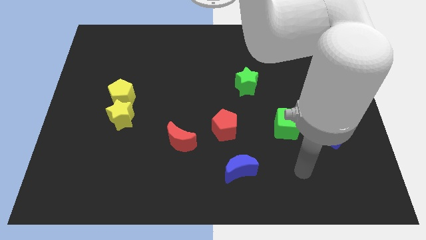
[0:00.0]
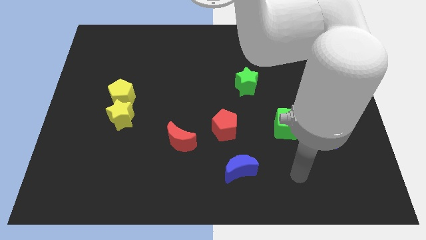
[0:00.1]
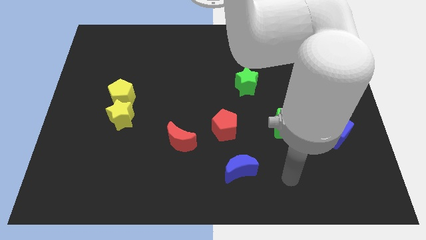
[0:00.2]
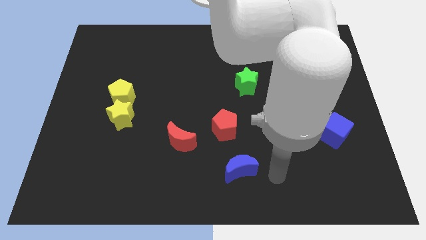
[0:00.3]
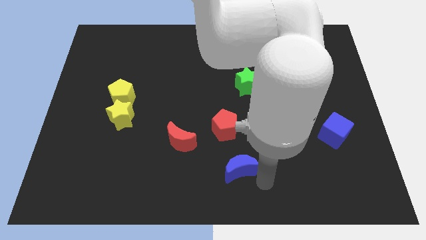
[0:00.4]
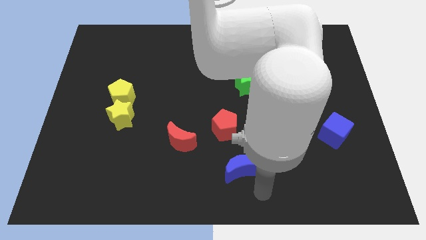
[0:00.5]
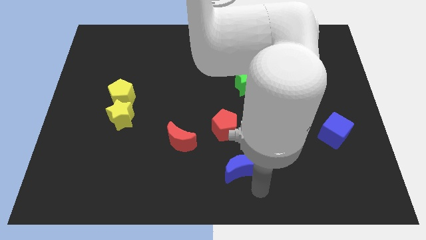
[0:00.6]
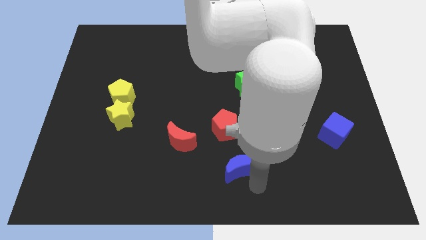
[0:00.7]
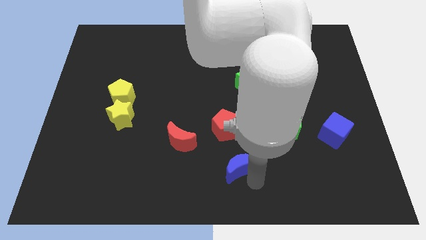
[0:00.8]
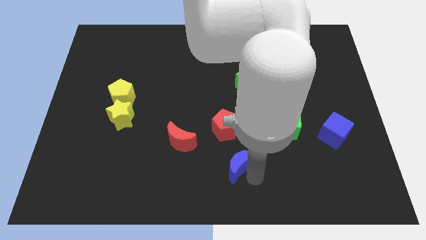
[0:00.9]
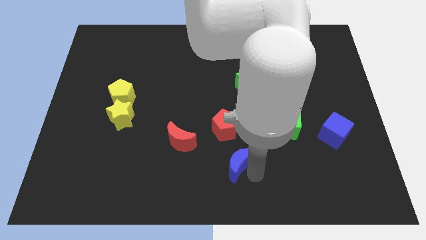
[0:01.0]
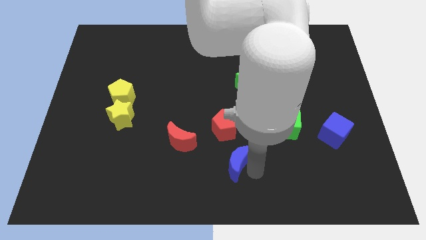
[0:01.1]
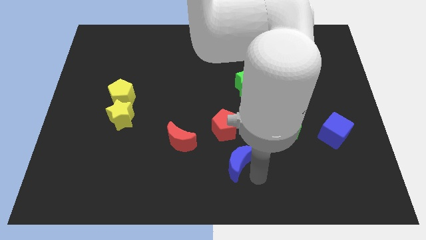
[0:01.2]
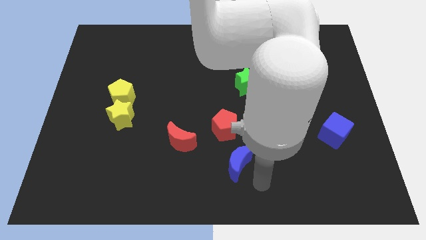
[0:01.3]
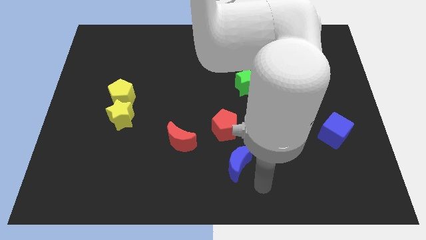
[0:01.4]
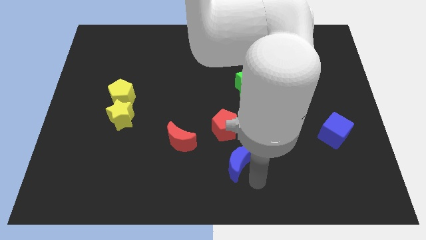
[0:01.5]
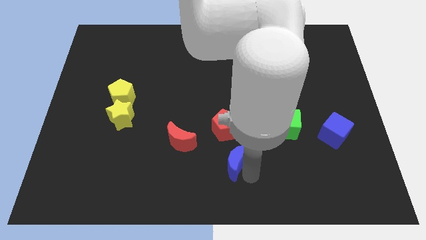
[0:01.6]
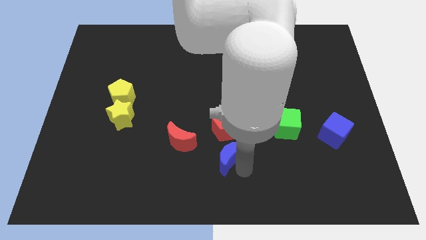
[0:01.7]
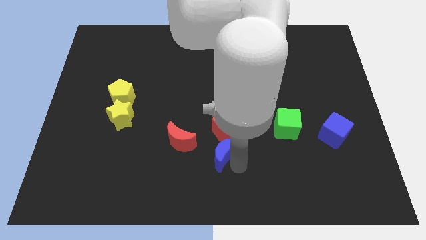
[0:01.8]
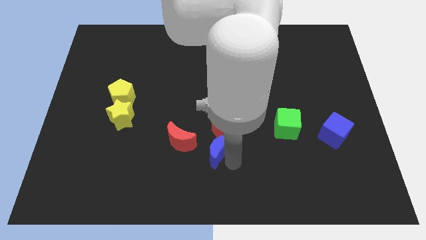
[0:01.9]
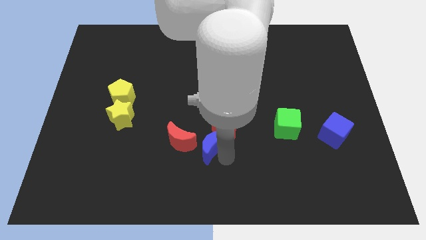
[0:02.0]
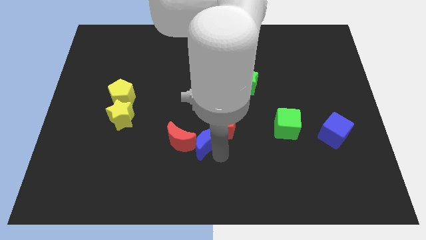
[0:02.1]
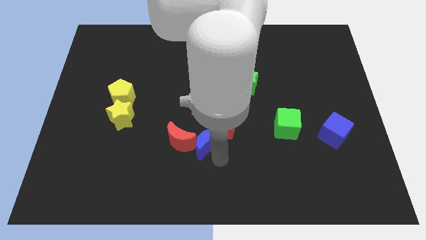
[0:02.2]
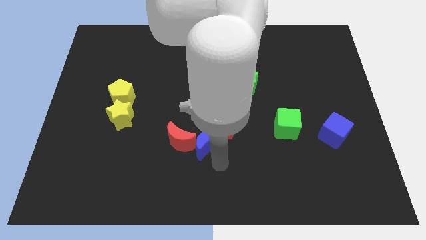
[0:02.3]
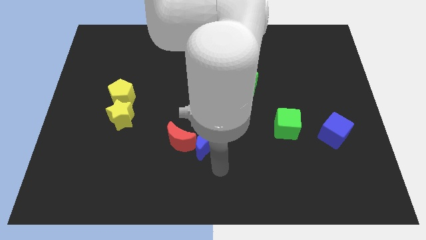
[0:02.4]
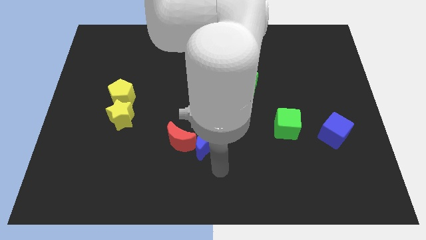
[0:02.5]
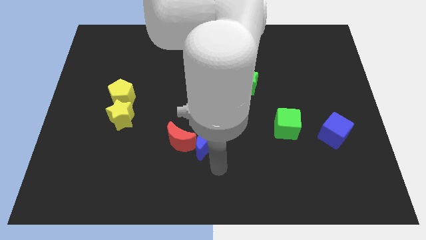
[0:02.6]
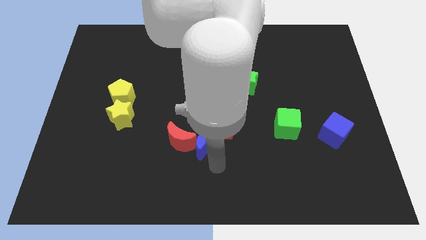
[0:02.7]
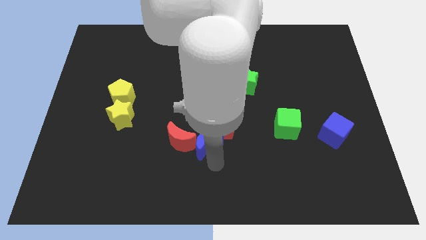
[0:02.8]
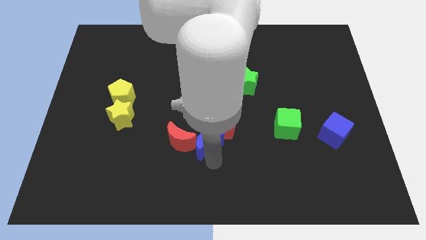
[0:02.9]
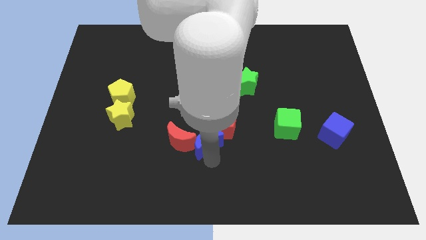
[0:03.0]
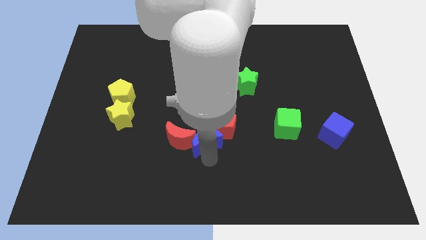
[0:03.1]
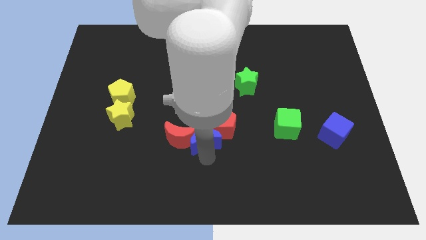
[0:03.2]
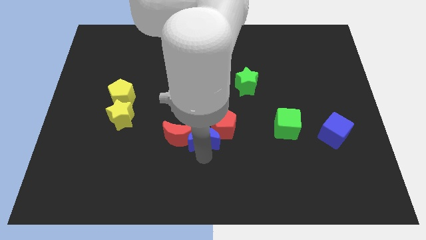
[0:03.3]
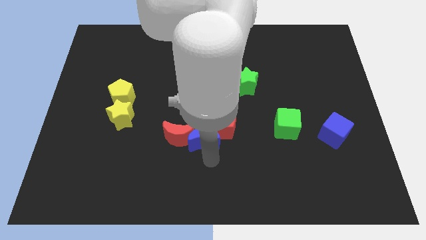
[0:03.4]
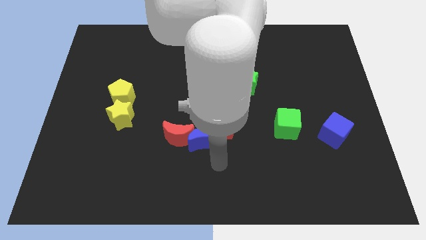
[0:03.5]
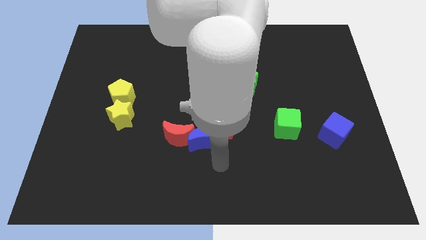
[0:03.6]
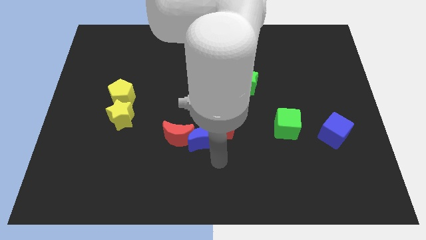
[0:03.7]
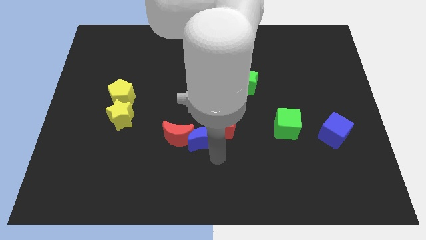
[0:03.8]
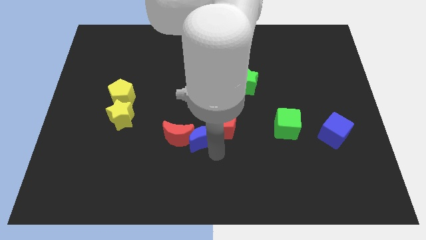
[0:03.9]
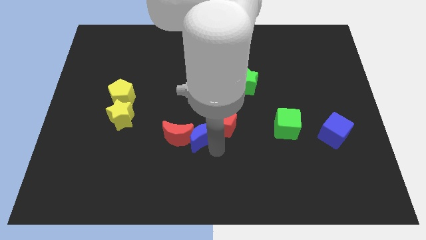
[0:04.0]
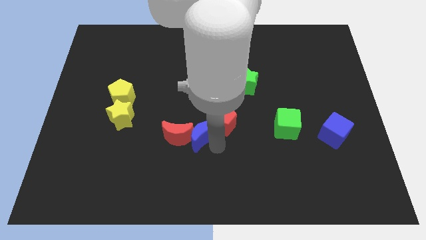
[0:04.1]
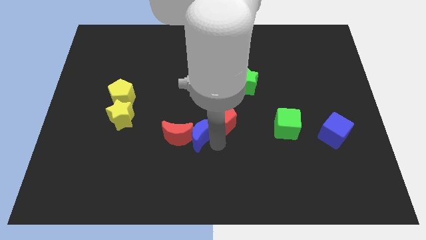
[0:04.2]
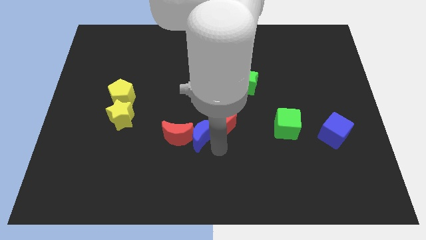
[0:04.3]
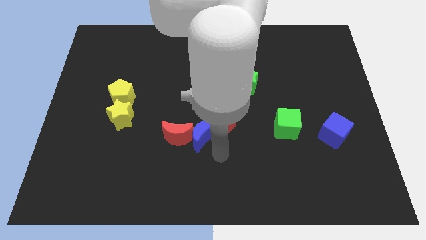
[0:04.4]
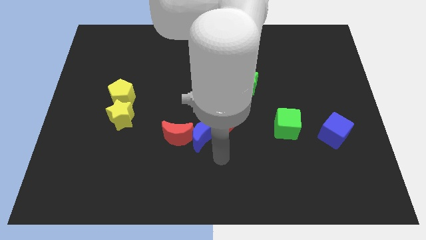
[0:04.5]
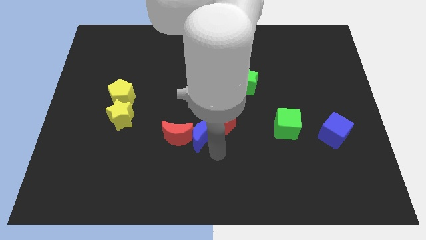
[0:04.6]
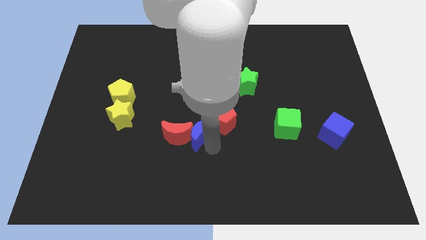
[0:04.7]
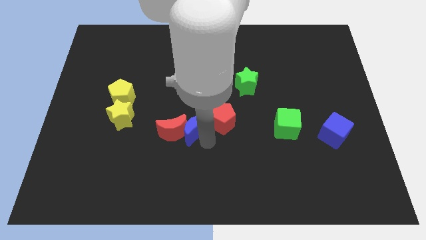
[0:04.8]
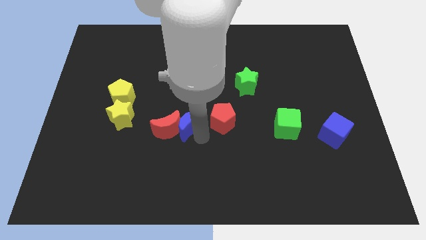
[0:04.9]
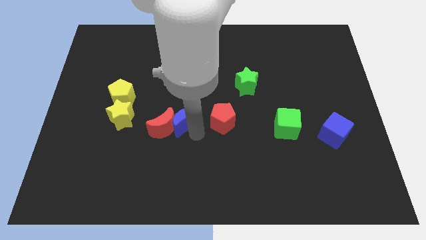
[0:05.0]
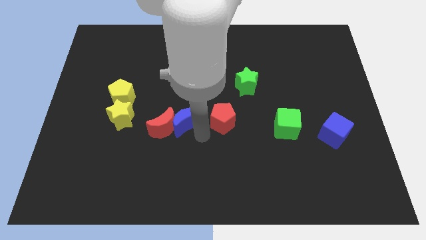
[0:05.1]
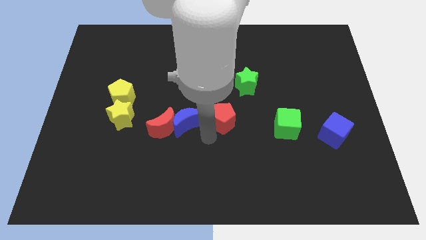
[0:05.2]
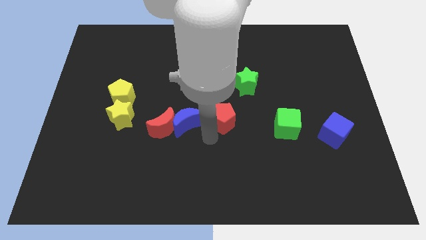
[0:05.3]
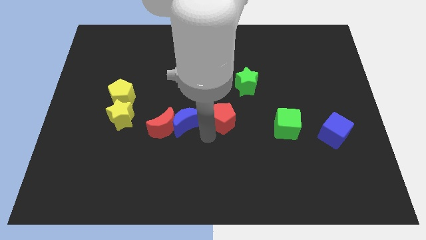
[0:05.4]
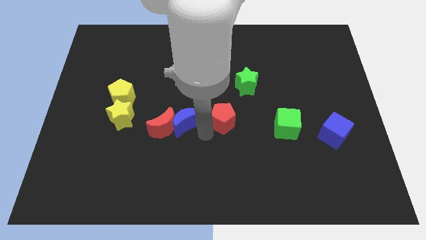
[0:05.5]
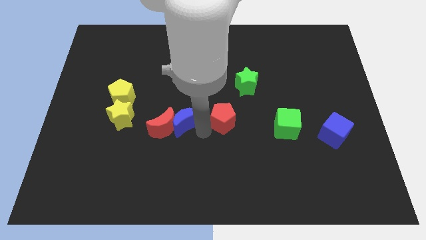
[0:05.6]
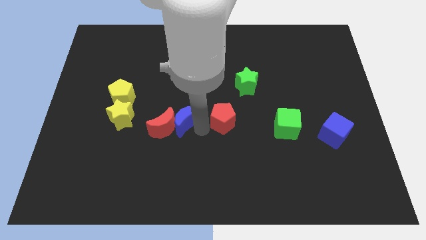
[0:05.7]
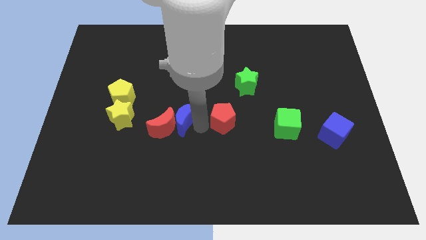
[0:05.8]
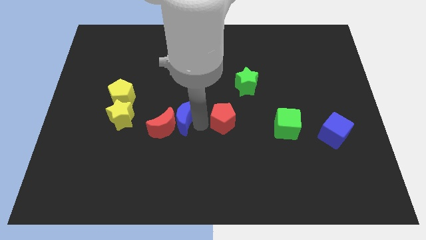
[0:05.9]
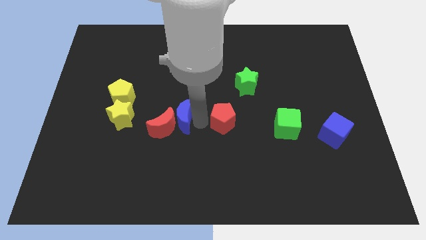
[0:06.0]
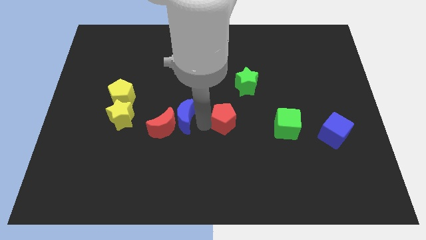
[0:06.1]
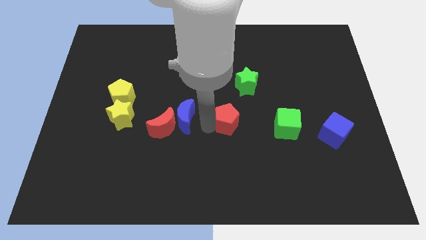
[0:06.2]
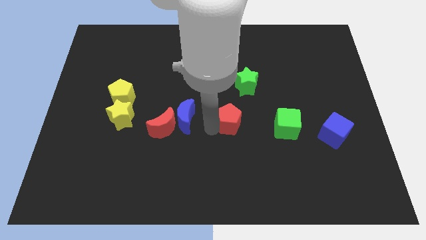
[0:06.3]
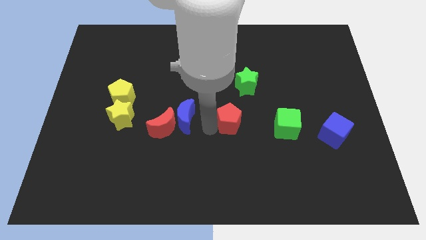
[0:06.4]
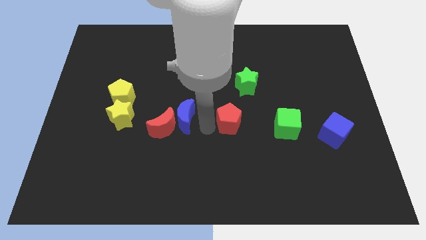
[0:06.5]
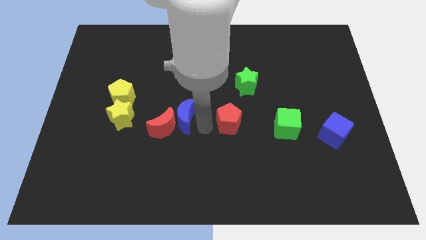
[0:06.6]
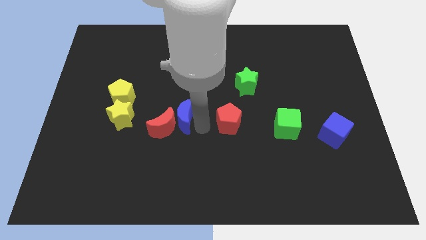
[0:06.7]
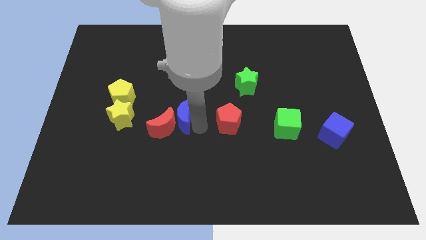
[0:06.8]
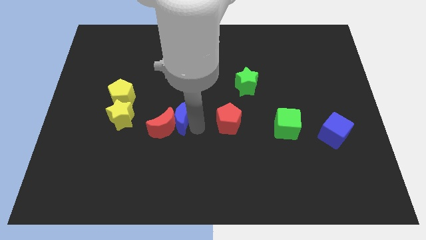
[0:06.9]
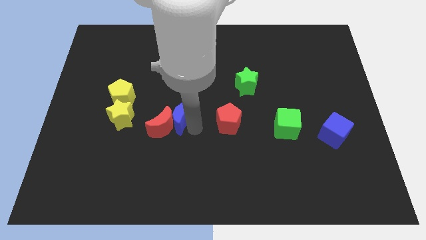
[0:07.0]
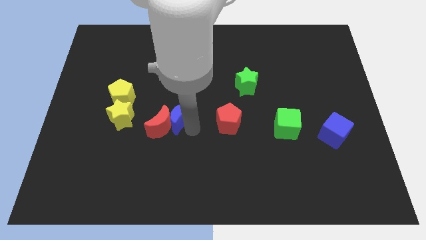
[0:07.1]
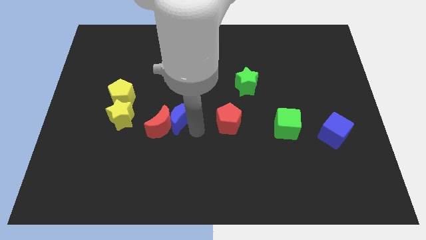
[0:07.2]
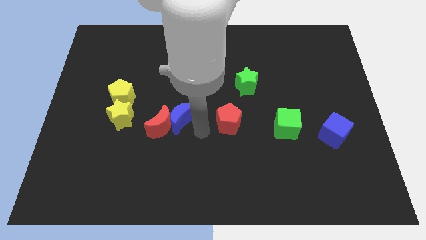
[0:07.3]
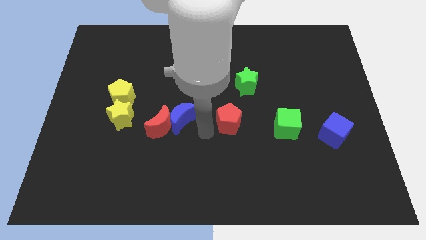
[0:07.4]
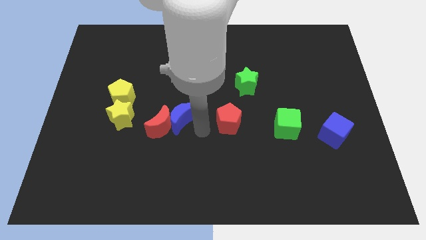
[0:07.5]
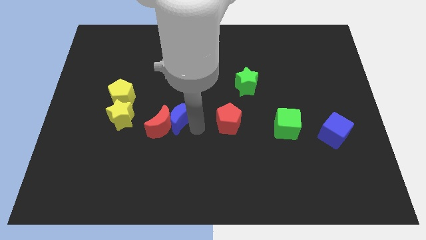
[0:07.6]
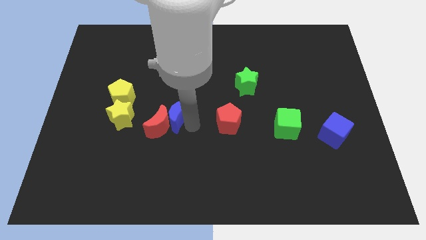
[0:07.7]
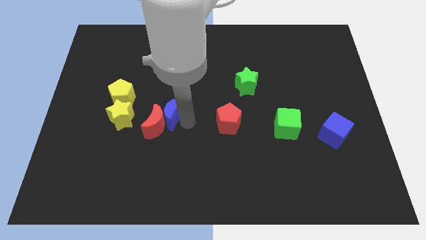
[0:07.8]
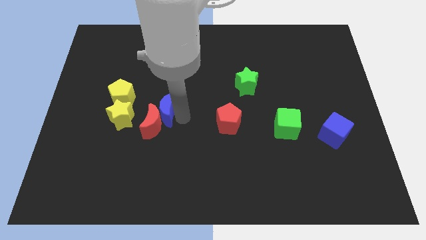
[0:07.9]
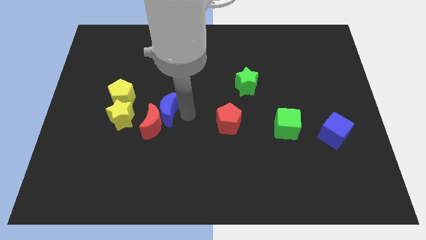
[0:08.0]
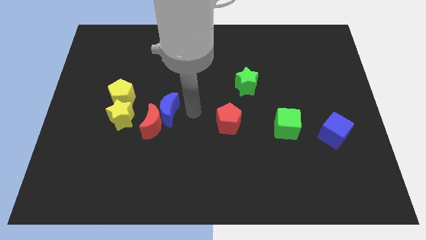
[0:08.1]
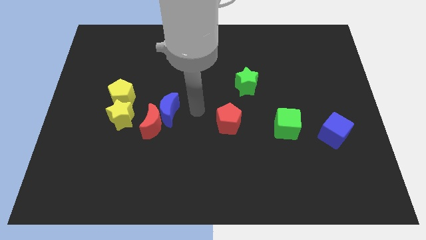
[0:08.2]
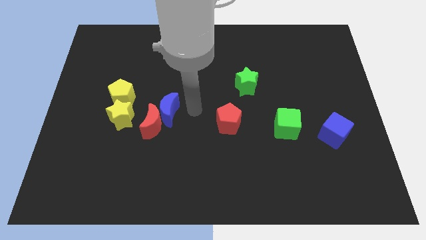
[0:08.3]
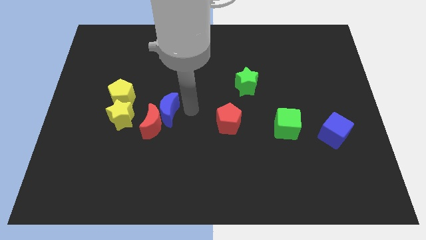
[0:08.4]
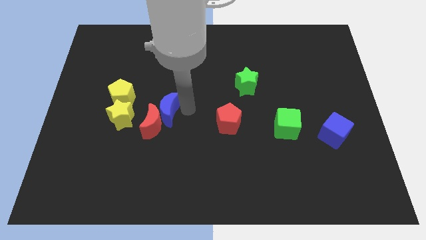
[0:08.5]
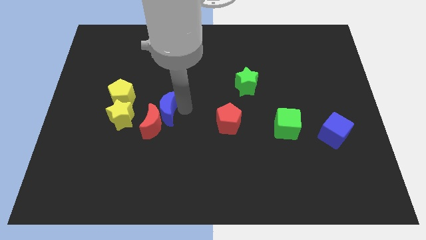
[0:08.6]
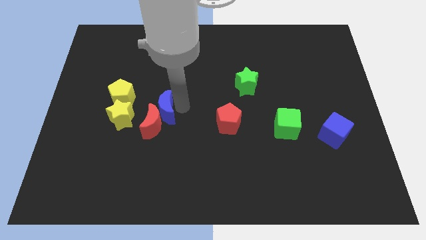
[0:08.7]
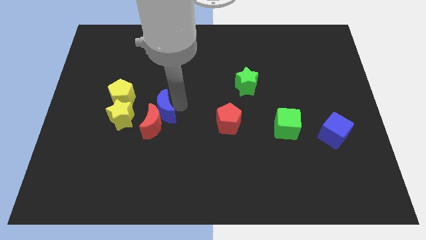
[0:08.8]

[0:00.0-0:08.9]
put the blue moon diagonally down and to the right of the yellow pentagon
